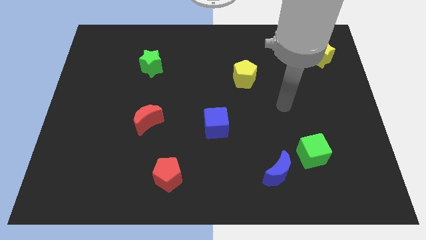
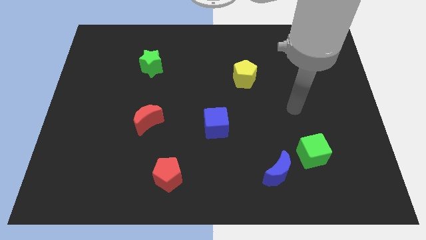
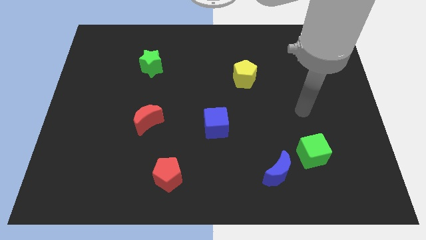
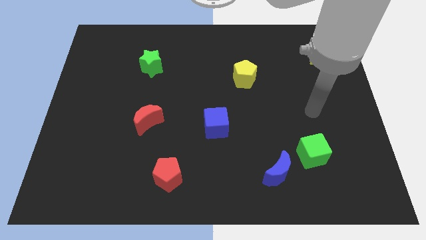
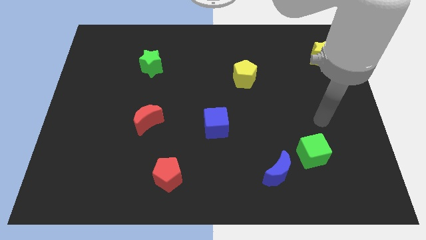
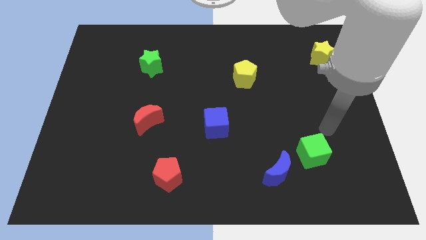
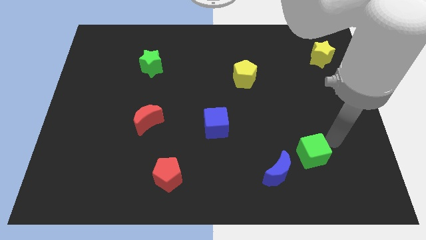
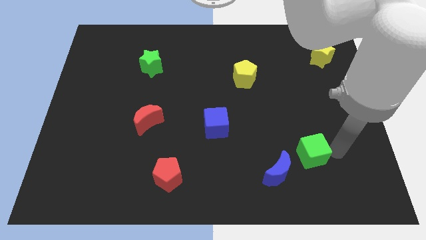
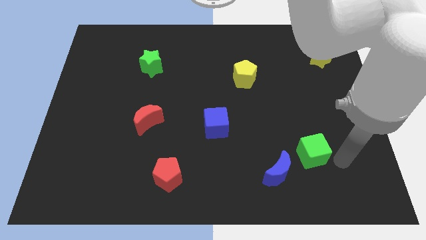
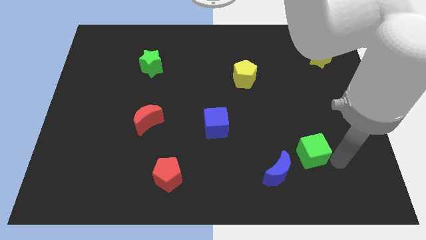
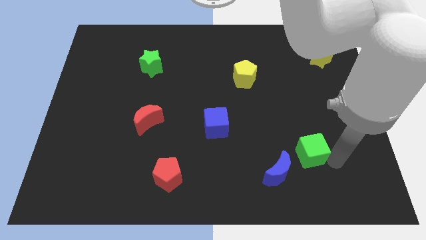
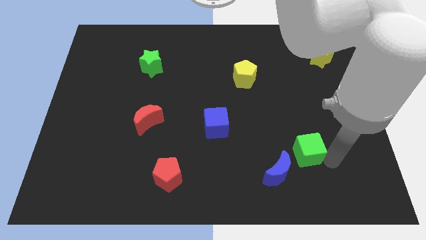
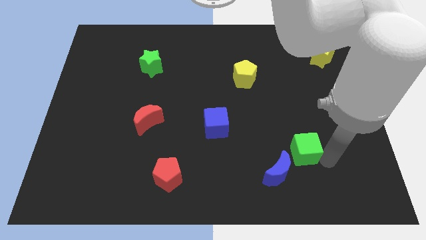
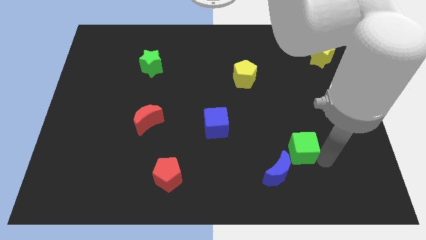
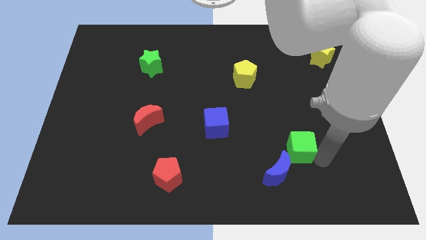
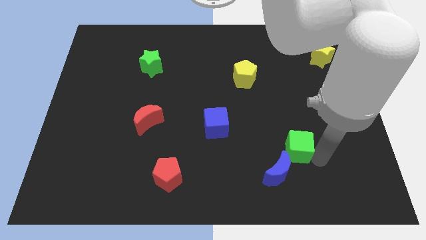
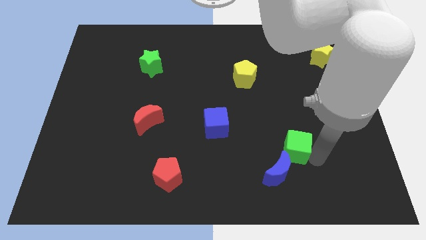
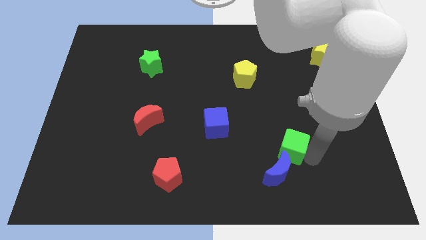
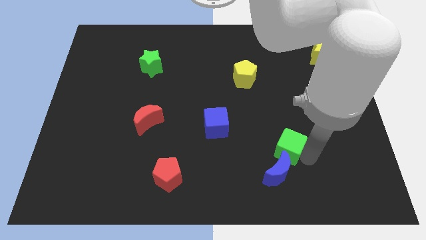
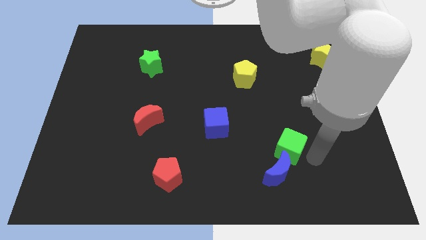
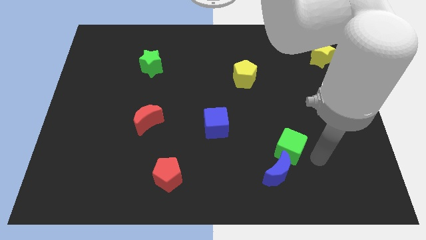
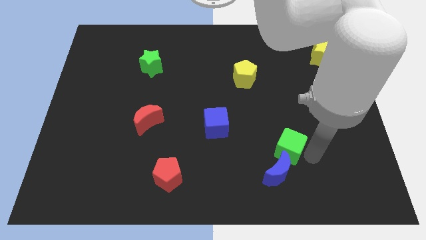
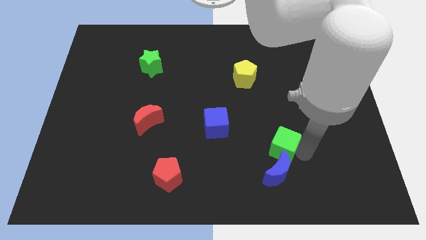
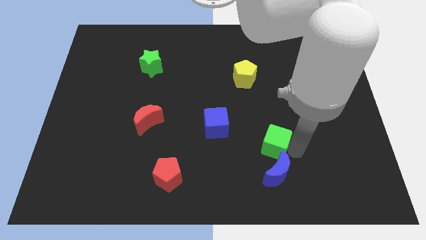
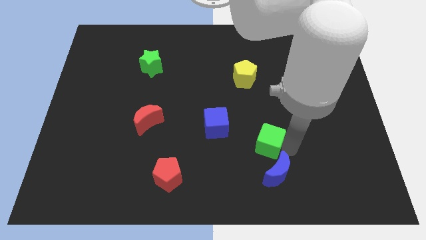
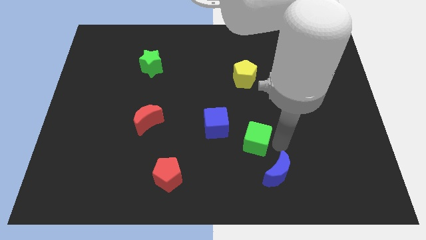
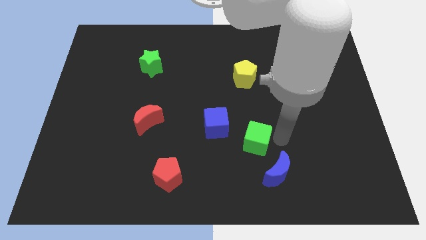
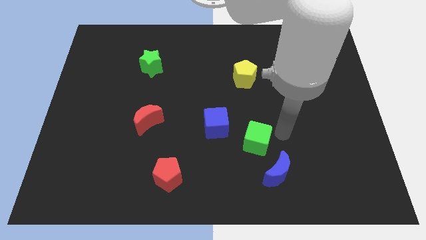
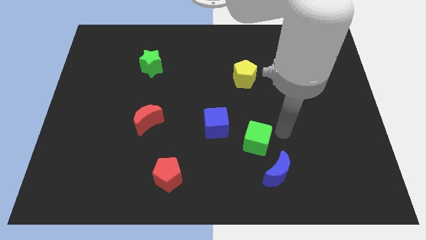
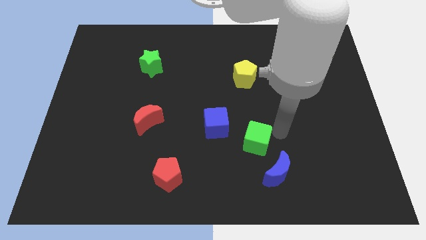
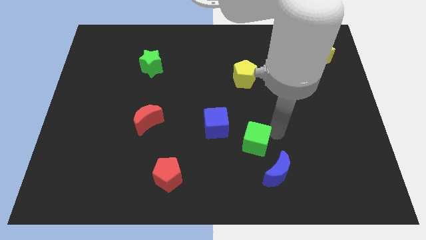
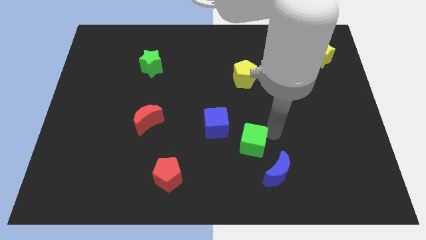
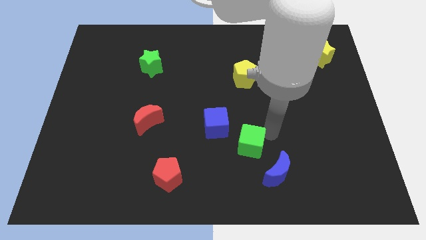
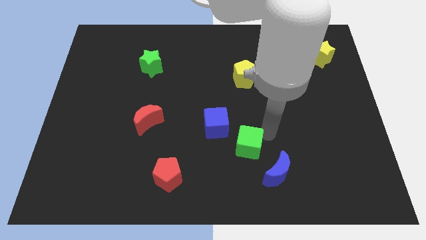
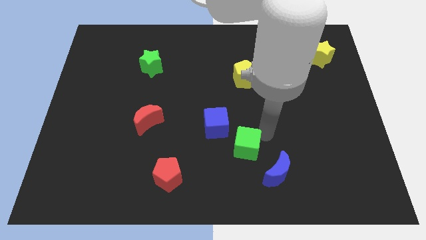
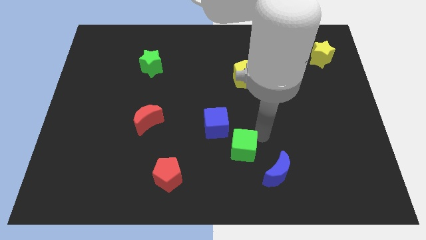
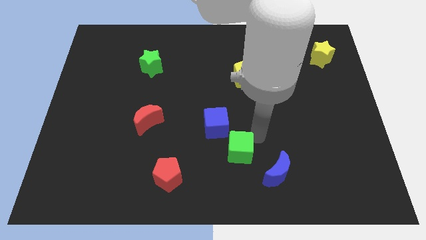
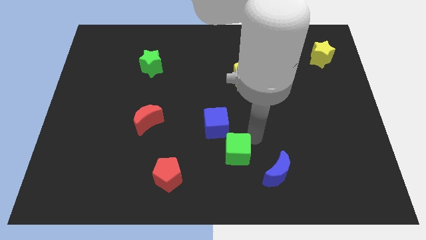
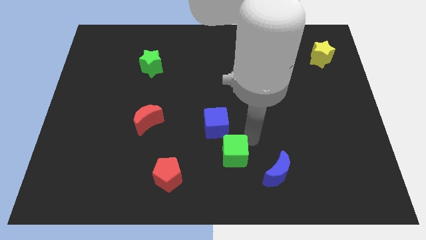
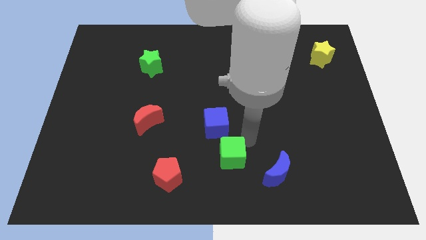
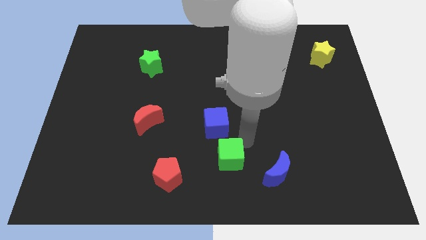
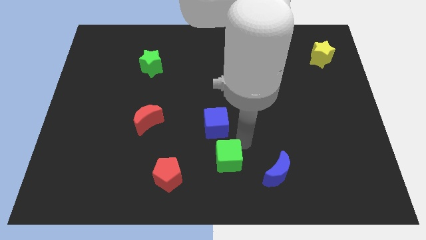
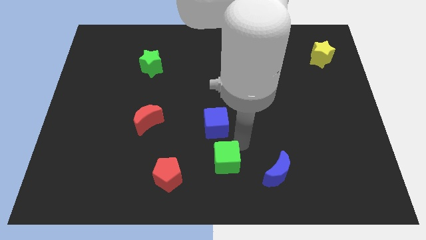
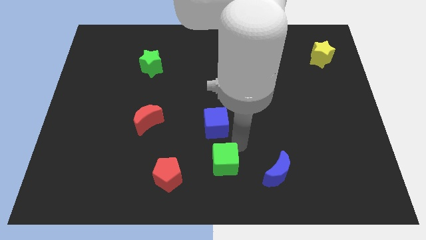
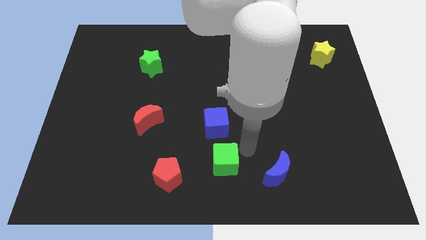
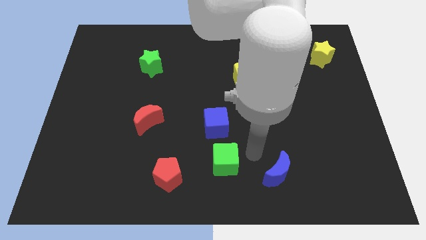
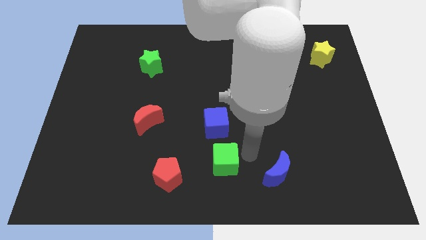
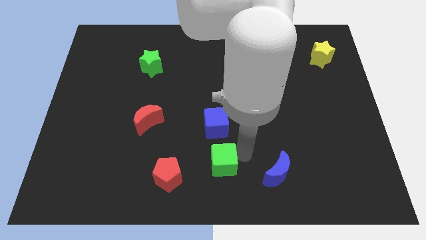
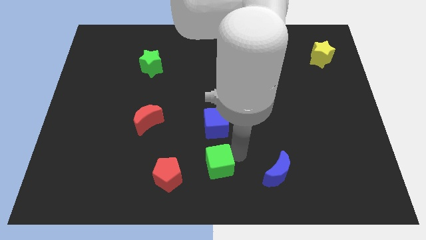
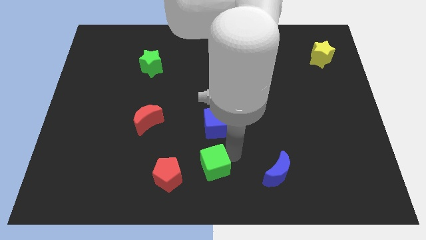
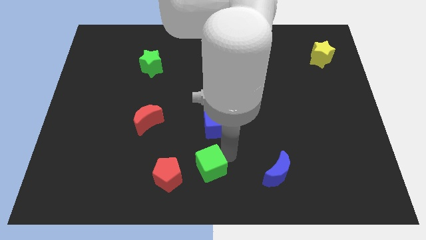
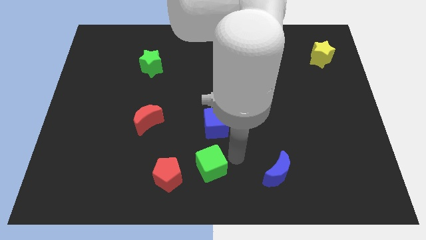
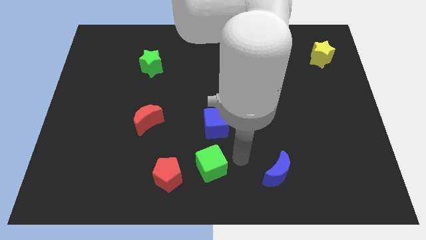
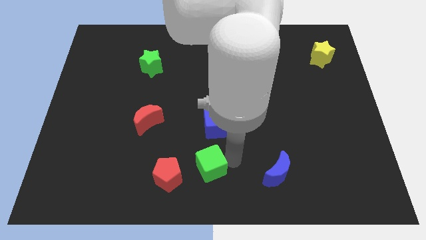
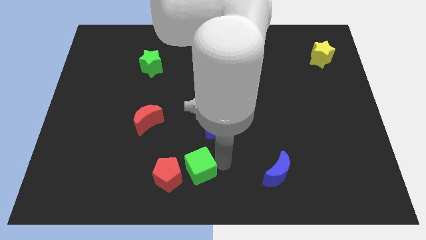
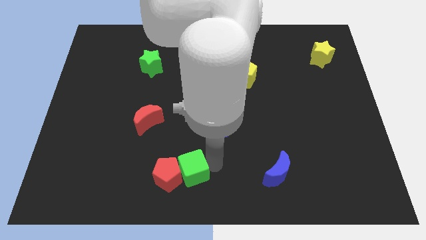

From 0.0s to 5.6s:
slide the green cube to the red pentagon

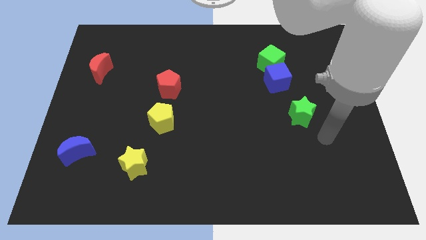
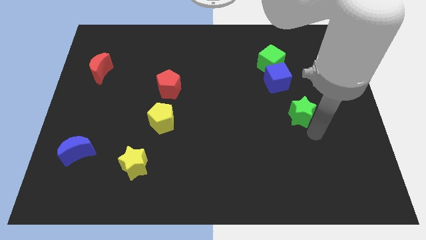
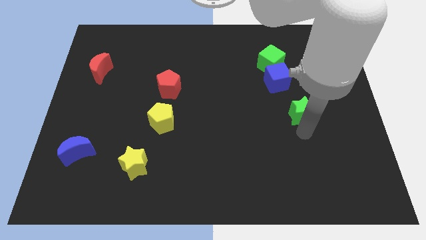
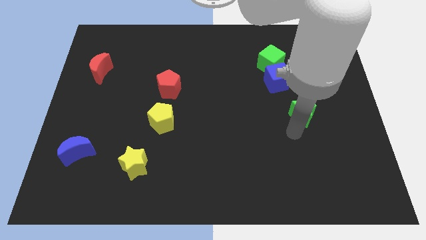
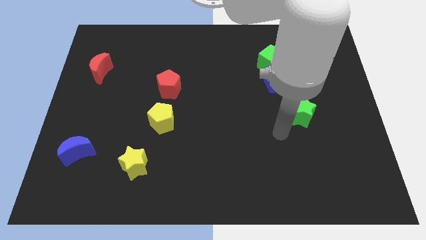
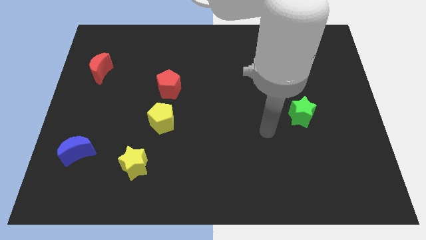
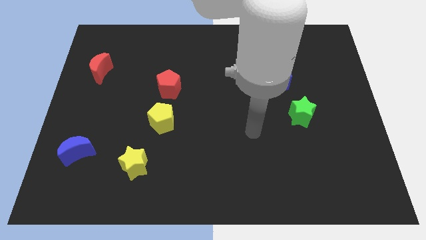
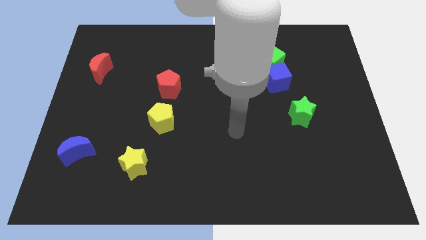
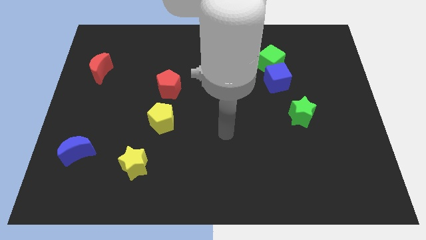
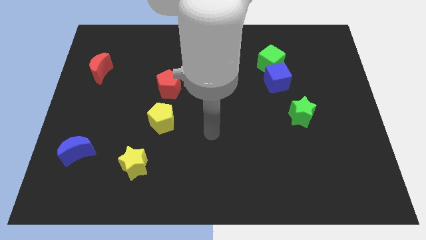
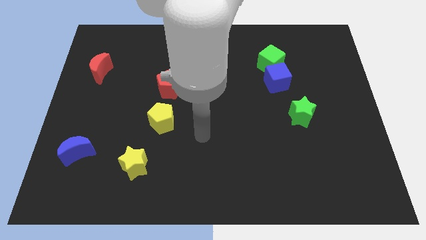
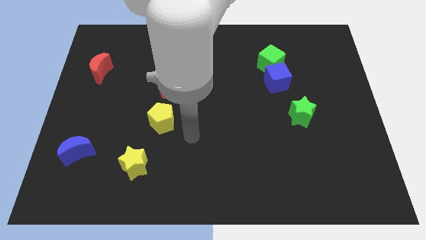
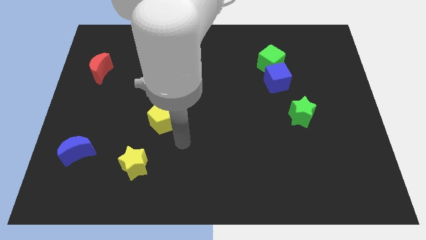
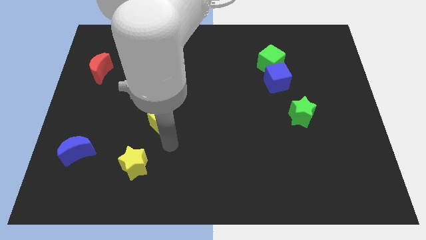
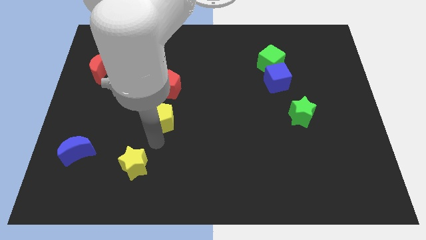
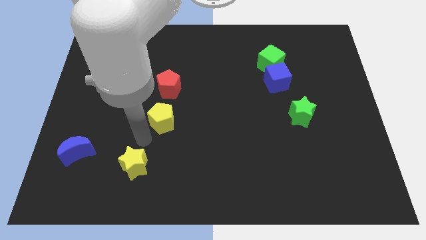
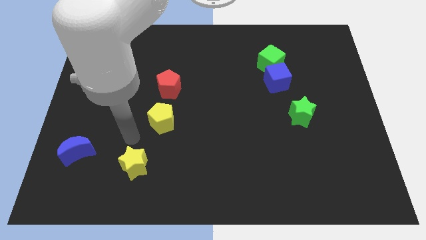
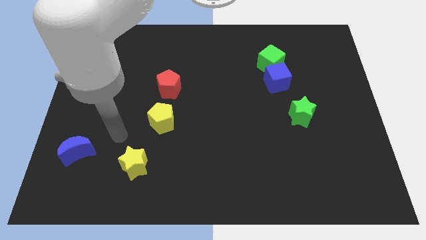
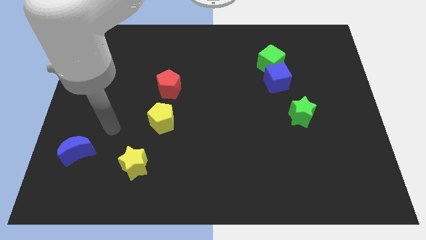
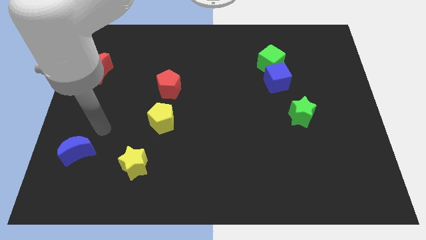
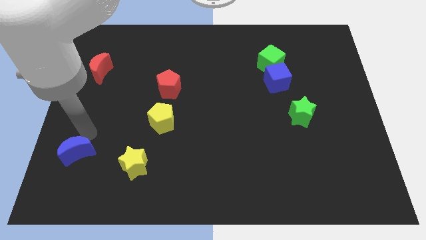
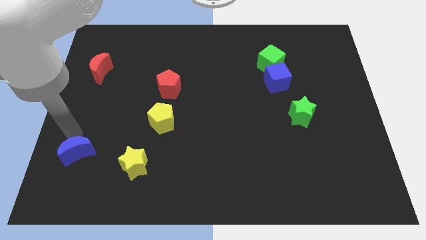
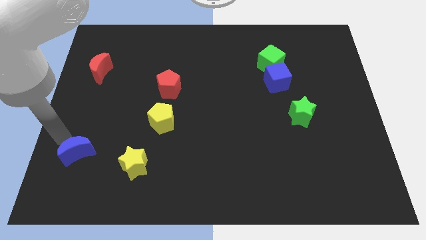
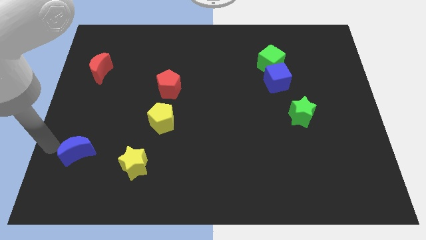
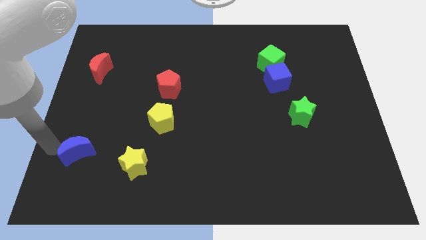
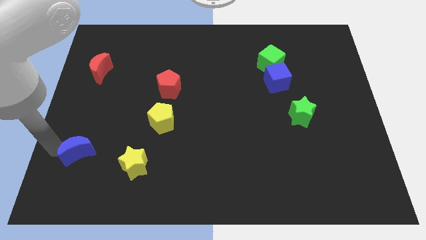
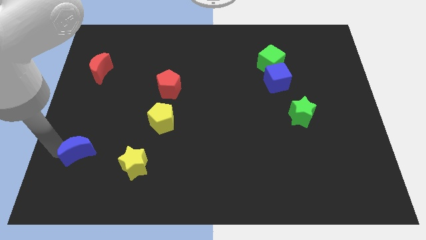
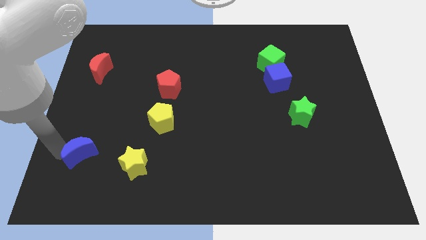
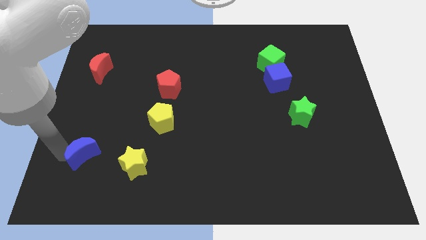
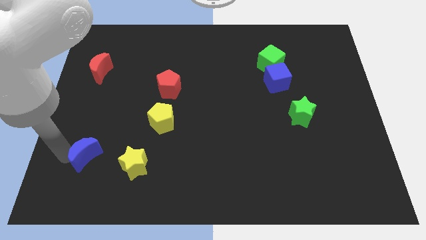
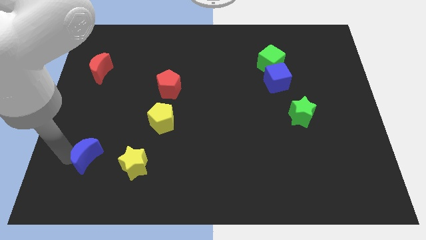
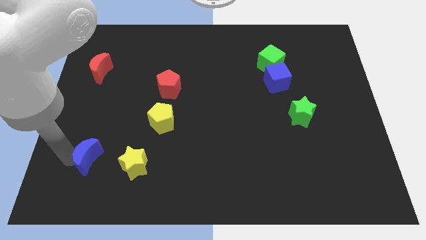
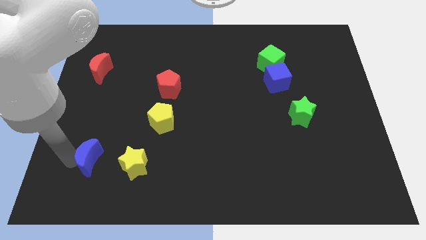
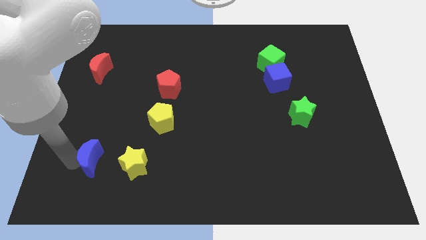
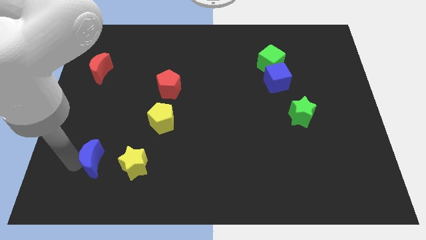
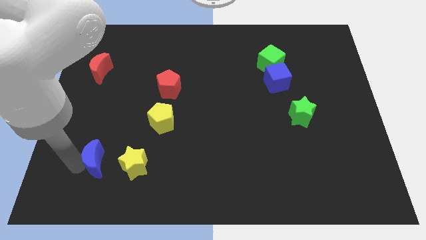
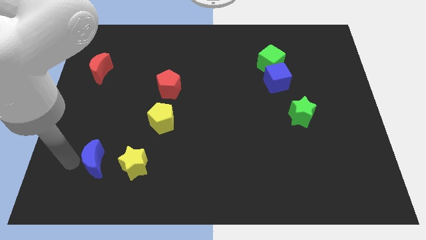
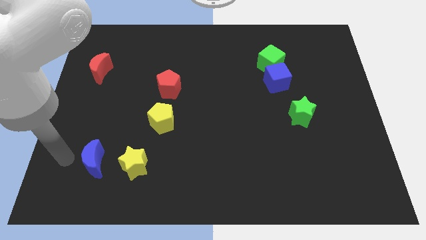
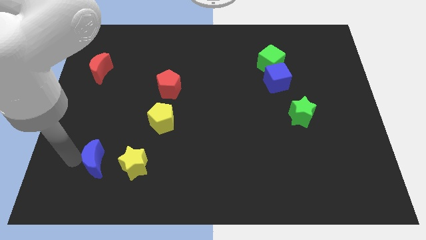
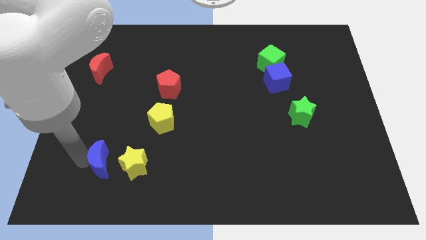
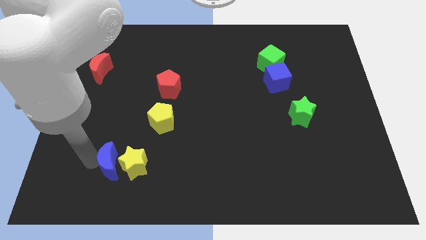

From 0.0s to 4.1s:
put the blue moon to the yellow star
